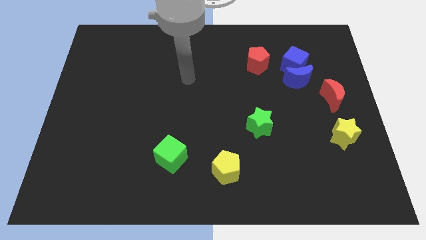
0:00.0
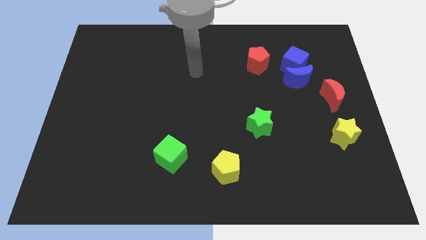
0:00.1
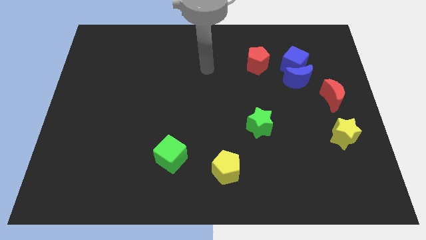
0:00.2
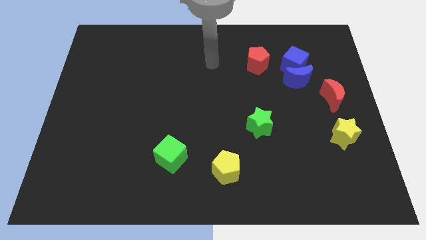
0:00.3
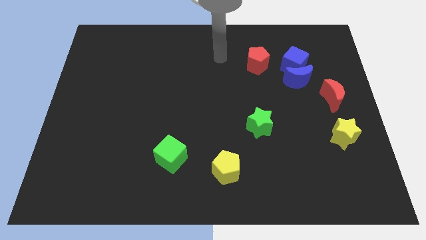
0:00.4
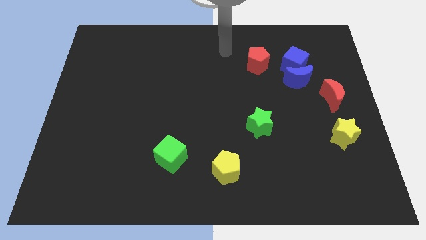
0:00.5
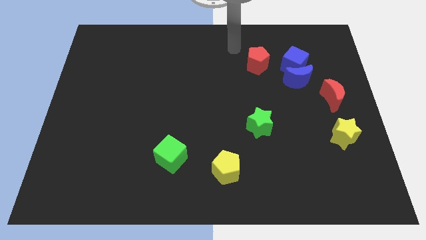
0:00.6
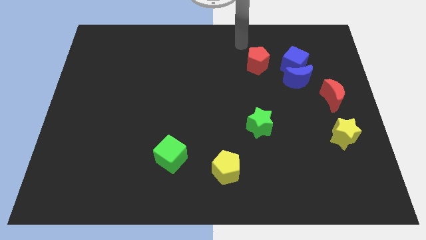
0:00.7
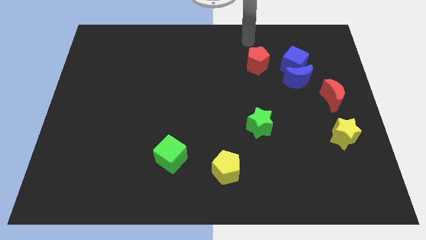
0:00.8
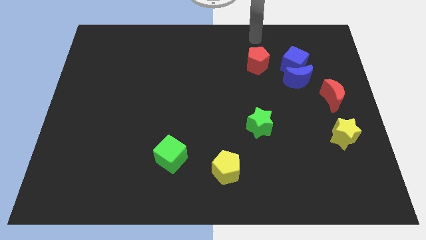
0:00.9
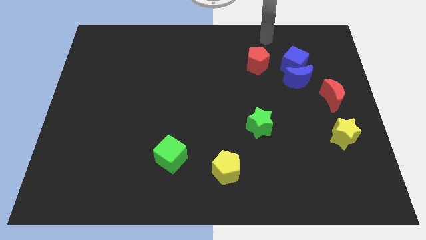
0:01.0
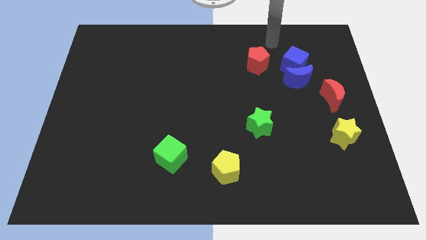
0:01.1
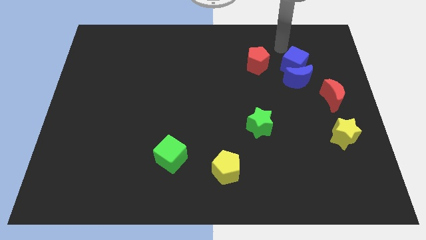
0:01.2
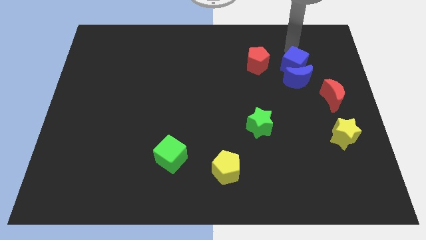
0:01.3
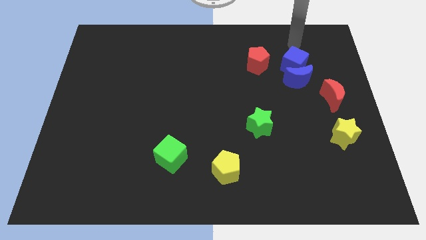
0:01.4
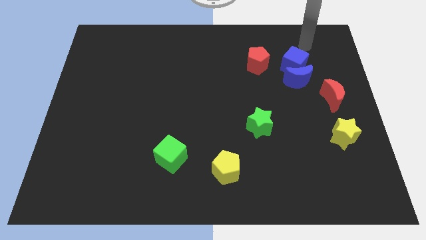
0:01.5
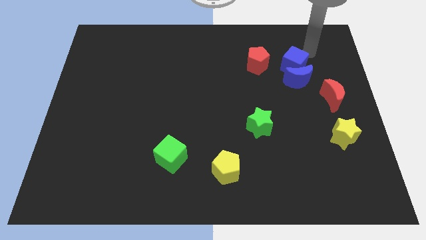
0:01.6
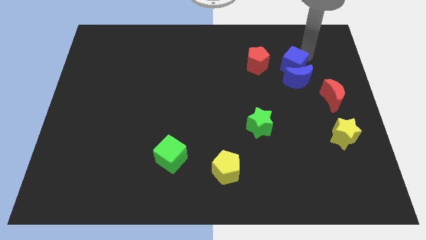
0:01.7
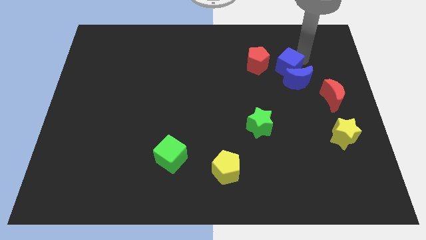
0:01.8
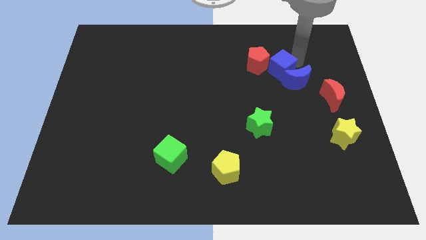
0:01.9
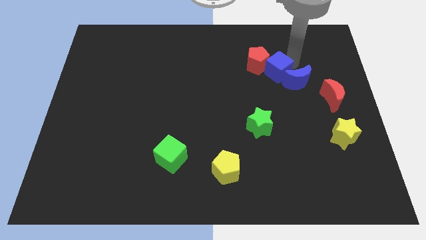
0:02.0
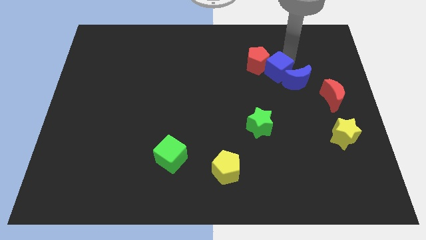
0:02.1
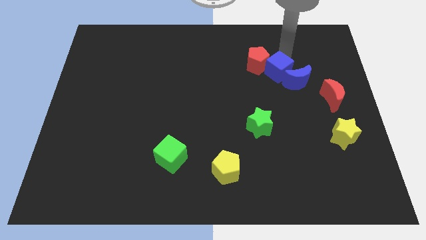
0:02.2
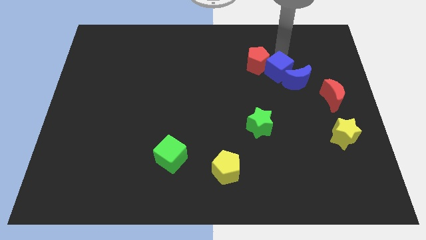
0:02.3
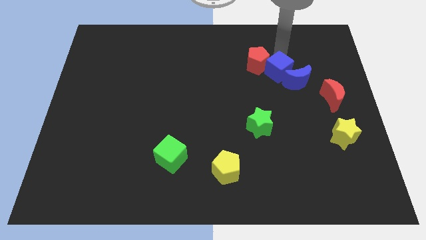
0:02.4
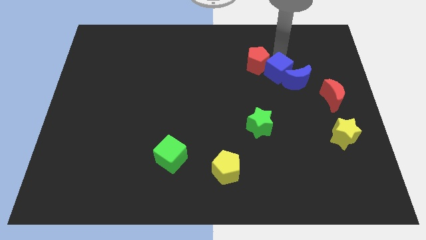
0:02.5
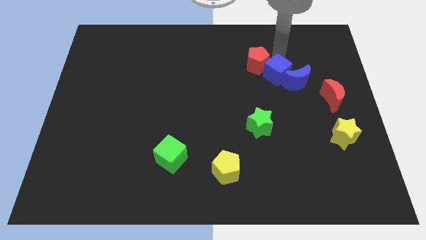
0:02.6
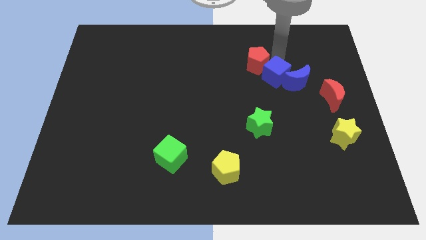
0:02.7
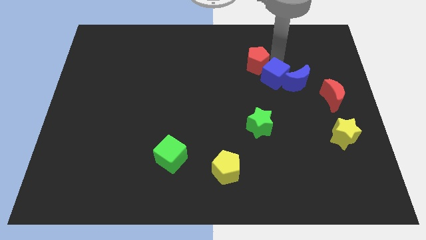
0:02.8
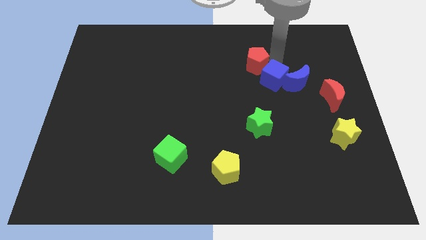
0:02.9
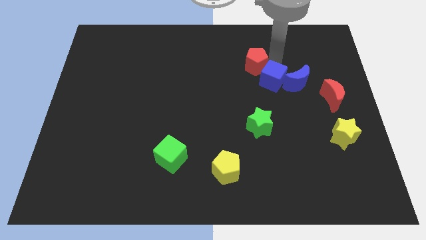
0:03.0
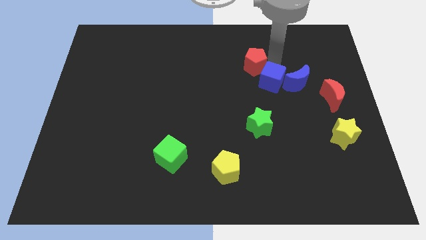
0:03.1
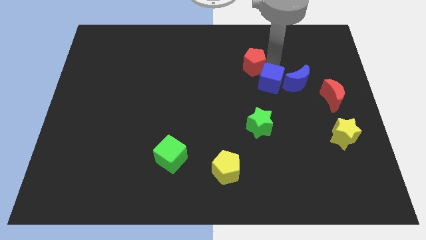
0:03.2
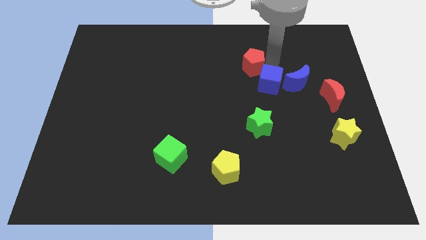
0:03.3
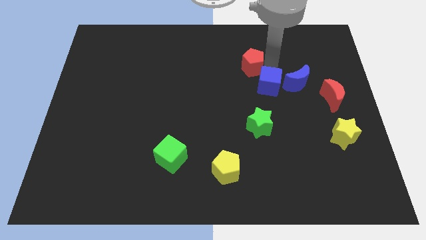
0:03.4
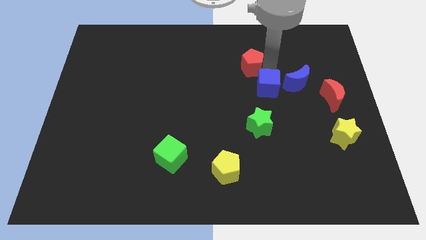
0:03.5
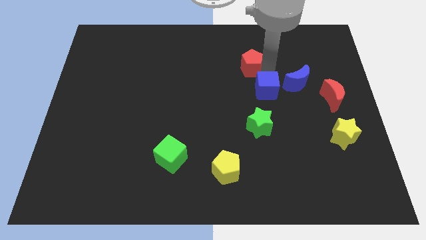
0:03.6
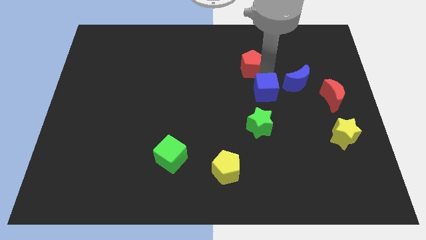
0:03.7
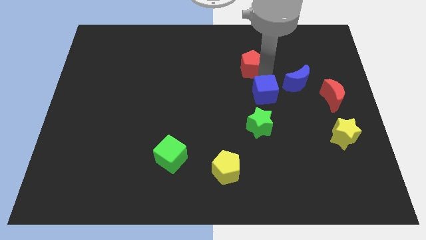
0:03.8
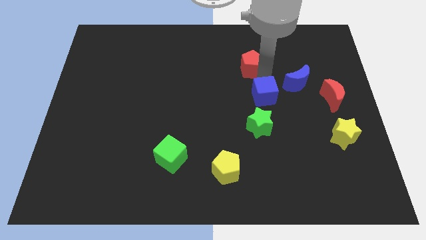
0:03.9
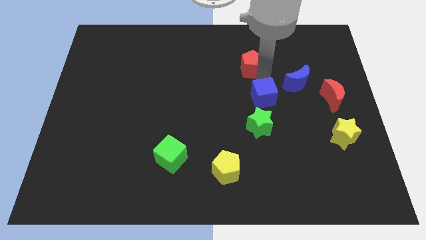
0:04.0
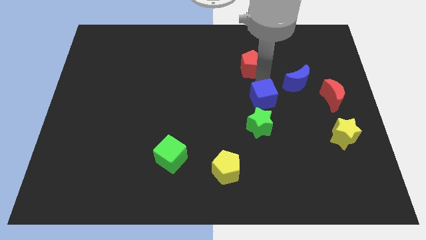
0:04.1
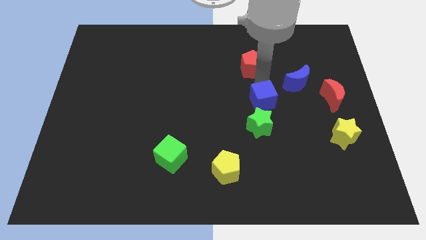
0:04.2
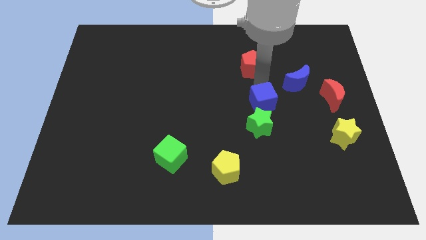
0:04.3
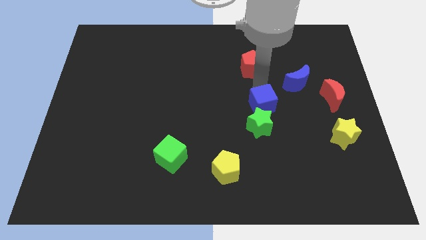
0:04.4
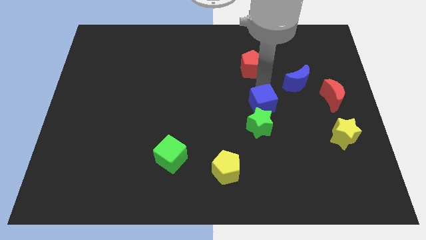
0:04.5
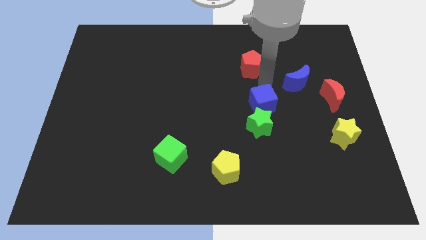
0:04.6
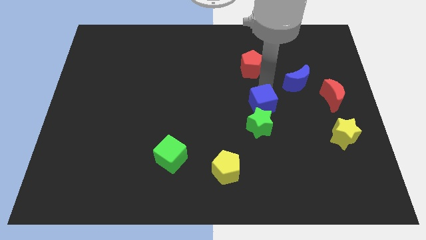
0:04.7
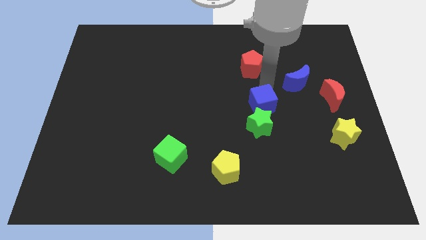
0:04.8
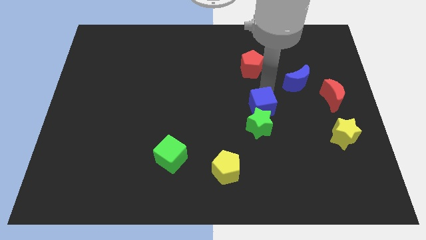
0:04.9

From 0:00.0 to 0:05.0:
put the blue cube close to the green star

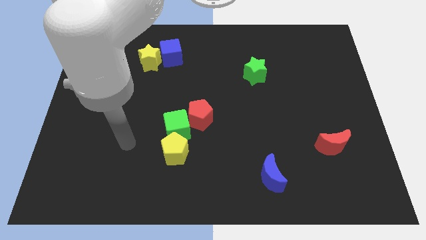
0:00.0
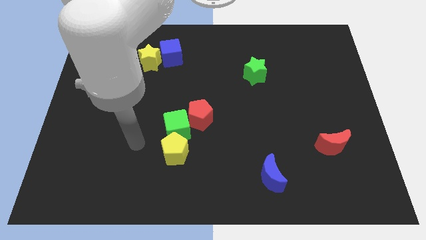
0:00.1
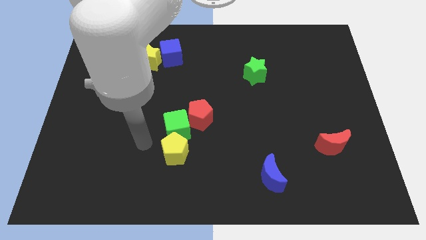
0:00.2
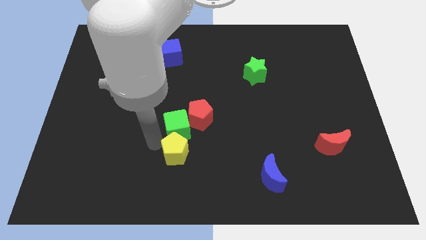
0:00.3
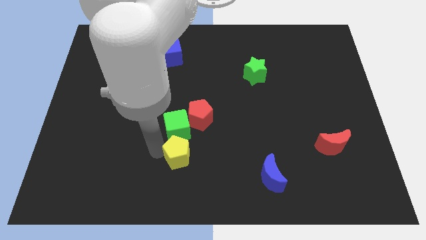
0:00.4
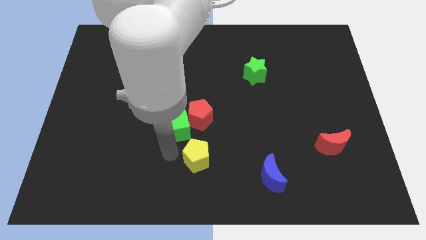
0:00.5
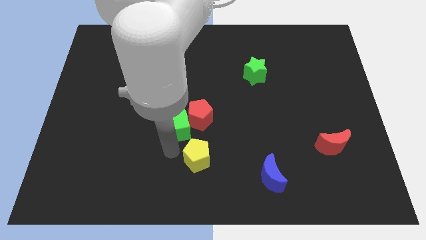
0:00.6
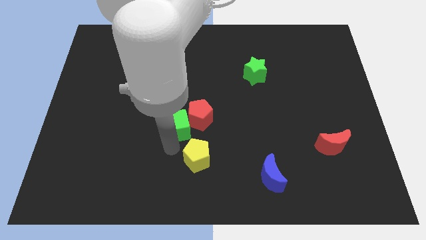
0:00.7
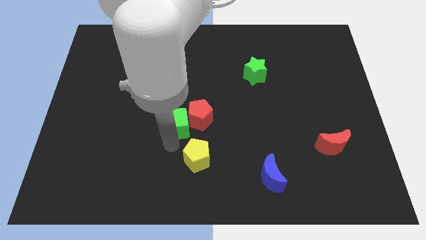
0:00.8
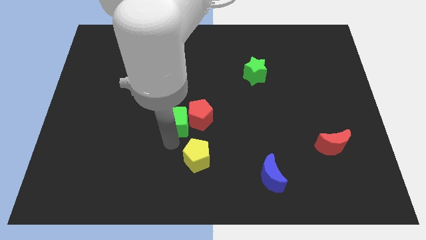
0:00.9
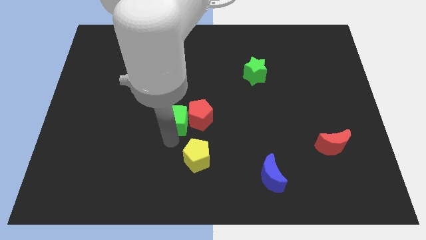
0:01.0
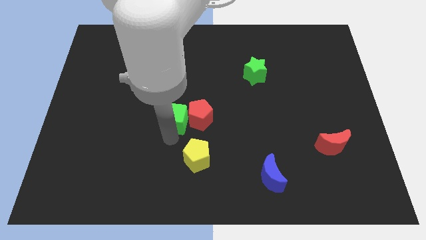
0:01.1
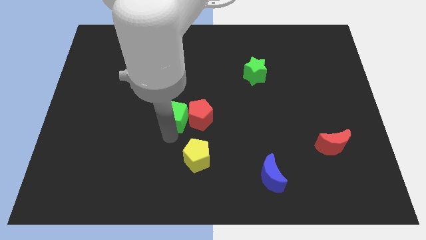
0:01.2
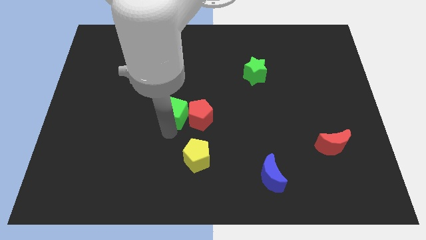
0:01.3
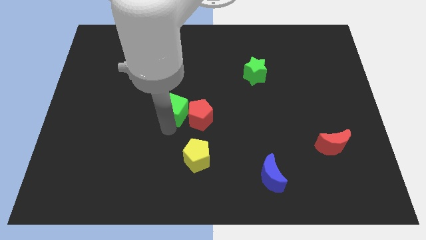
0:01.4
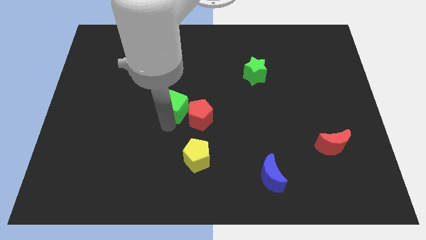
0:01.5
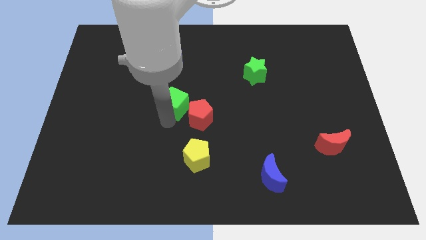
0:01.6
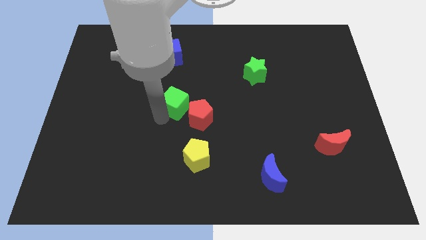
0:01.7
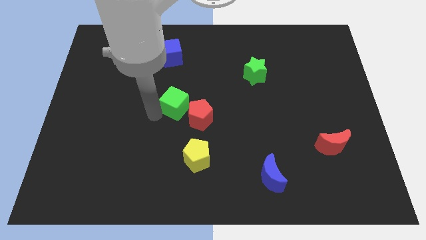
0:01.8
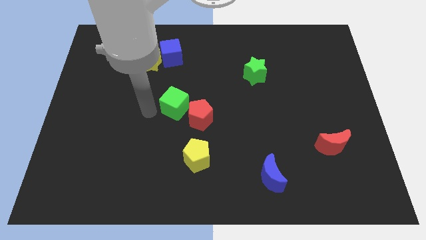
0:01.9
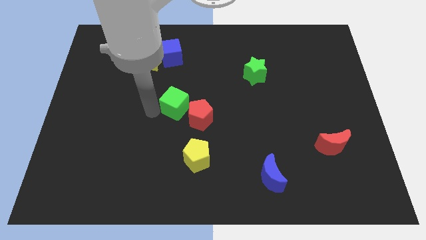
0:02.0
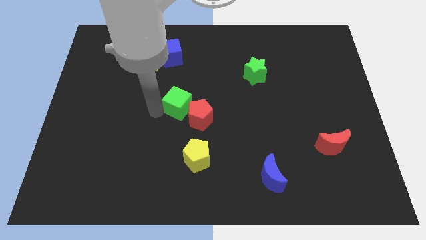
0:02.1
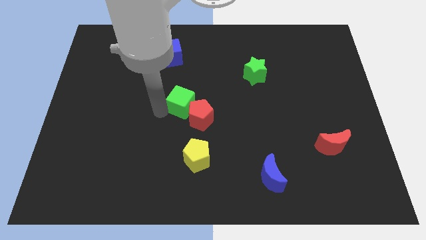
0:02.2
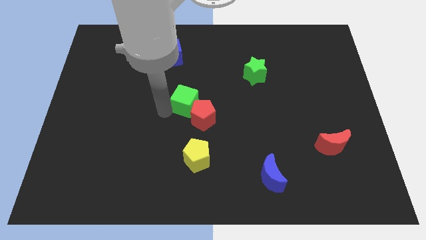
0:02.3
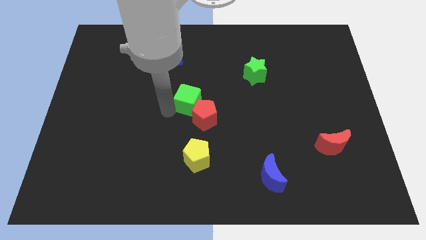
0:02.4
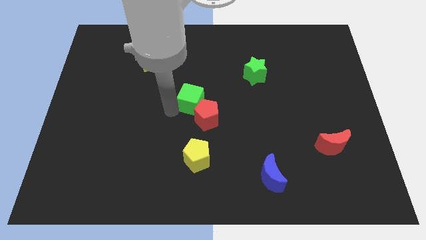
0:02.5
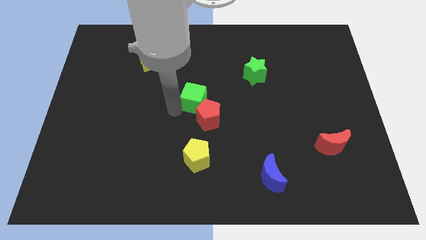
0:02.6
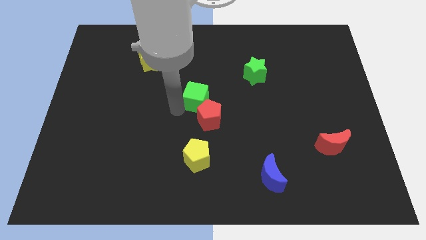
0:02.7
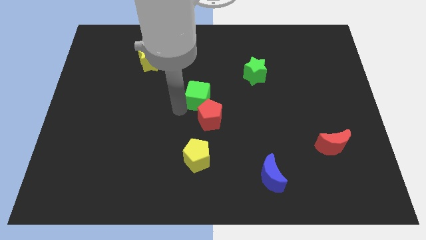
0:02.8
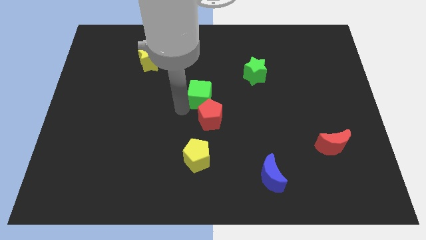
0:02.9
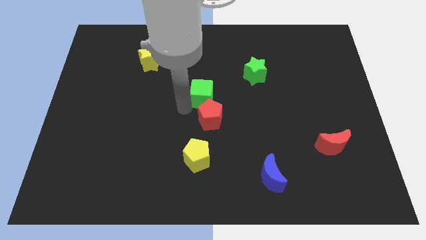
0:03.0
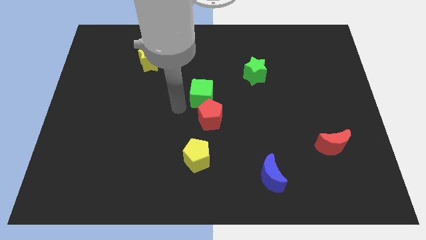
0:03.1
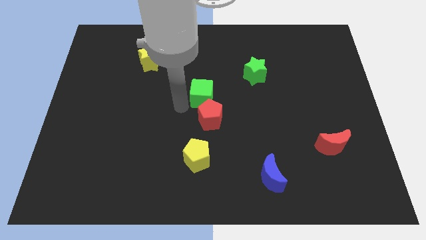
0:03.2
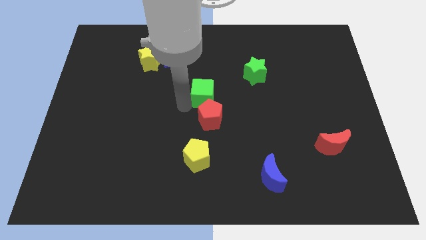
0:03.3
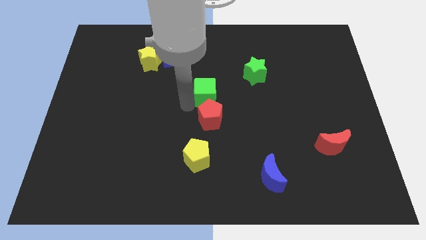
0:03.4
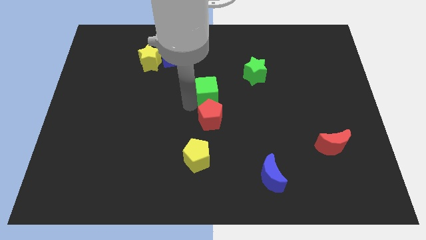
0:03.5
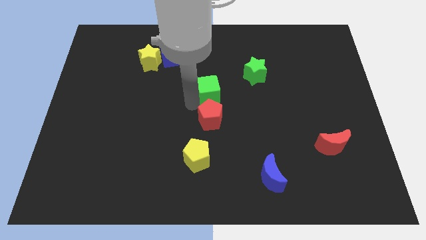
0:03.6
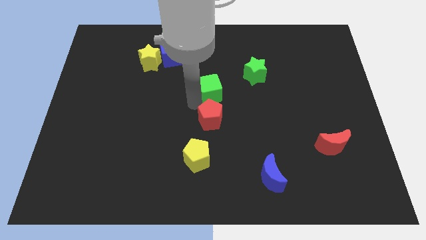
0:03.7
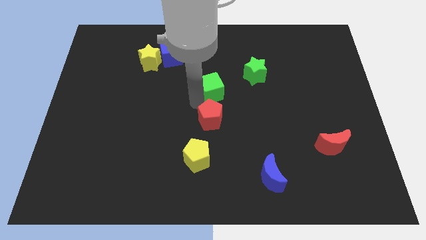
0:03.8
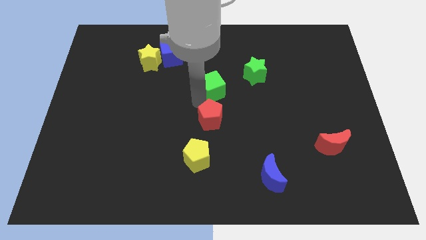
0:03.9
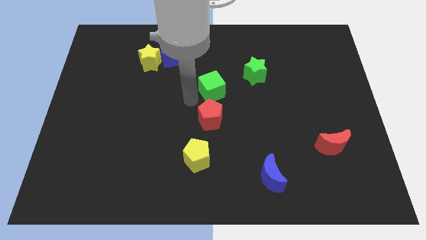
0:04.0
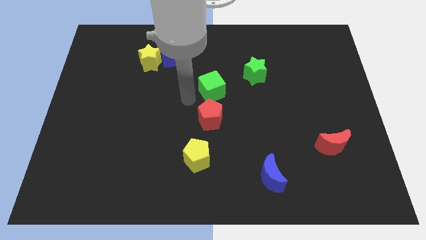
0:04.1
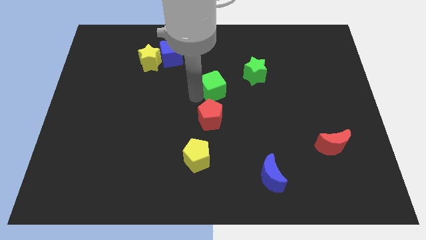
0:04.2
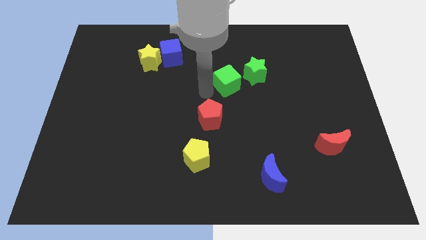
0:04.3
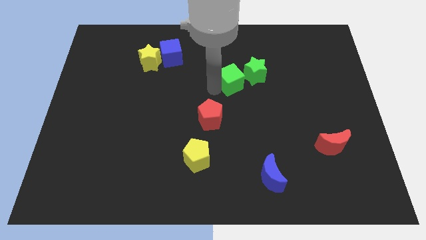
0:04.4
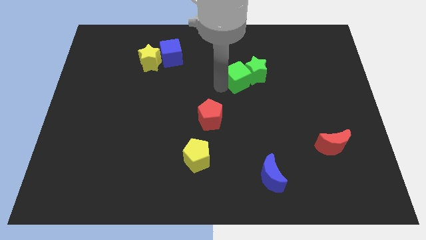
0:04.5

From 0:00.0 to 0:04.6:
move the green cube to the green star
